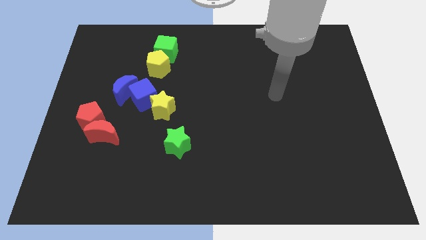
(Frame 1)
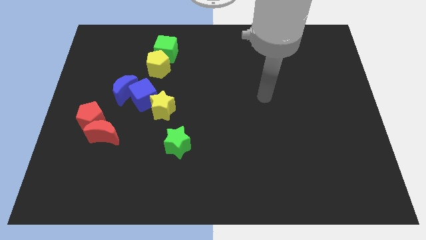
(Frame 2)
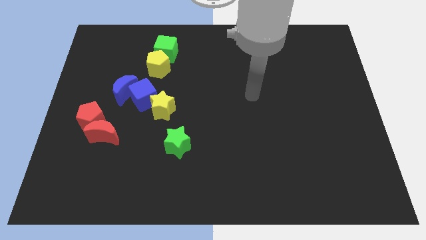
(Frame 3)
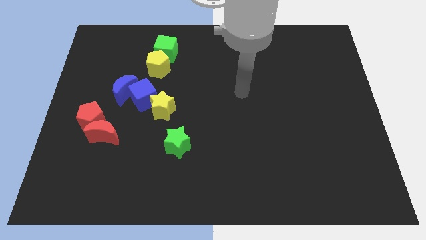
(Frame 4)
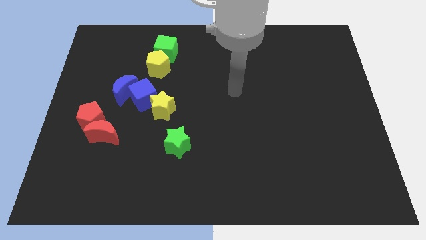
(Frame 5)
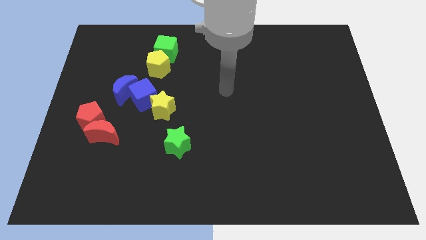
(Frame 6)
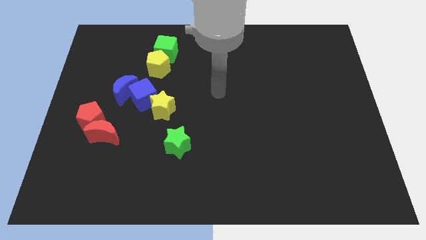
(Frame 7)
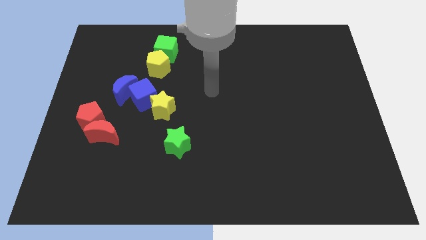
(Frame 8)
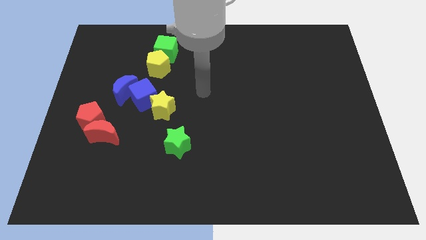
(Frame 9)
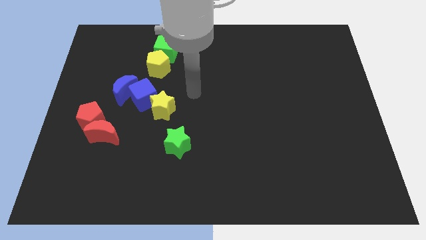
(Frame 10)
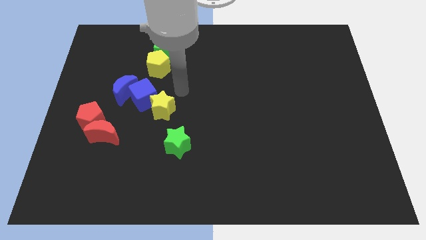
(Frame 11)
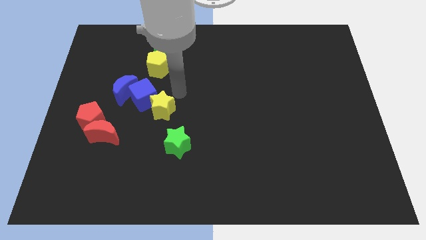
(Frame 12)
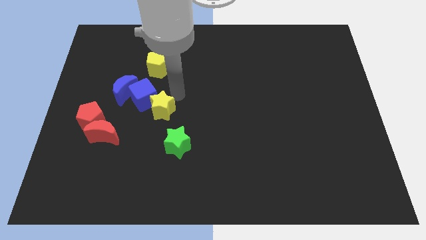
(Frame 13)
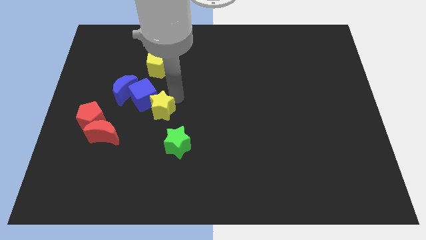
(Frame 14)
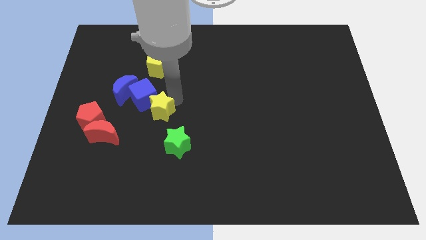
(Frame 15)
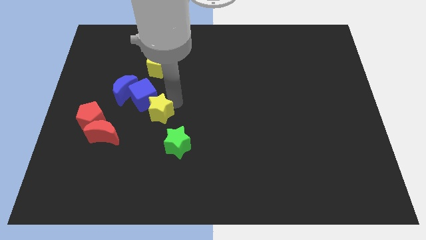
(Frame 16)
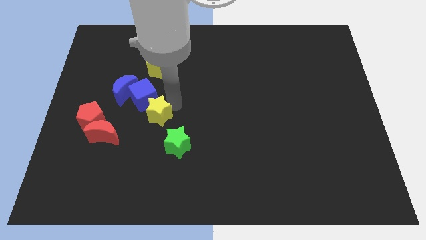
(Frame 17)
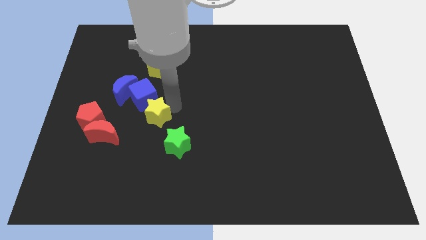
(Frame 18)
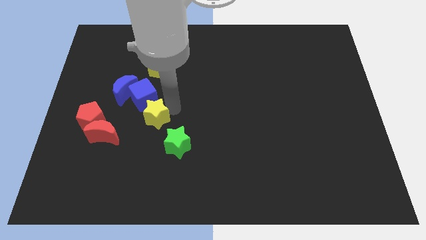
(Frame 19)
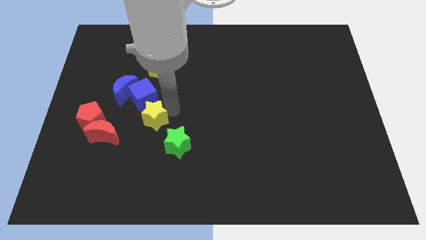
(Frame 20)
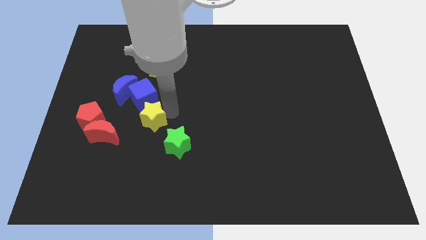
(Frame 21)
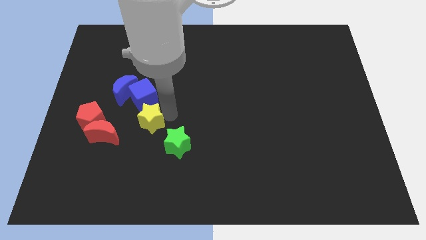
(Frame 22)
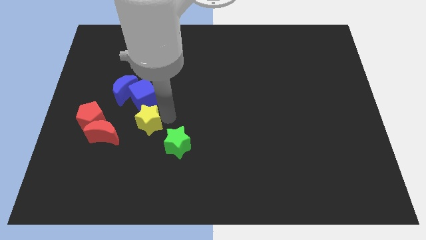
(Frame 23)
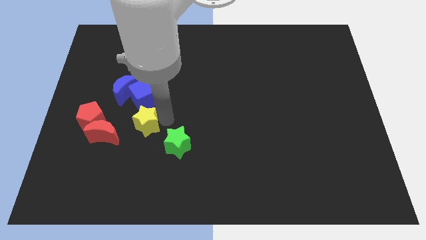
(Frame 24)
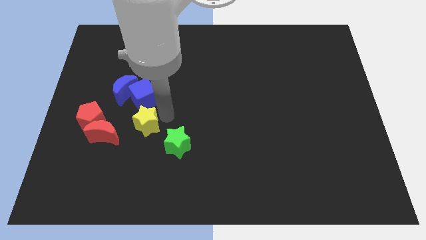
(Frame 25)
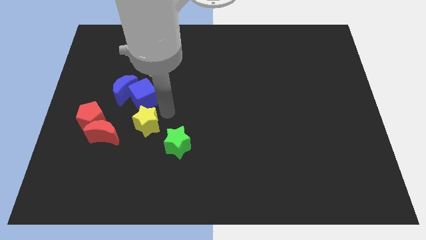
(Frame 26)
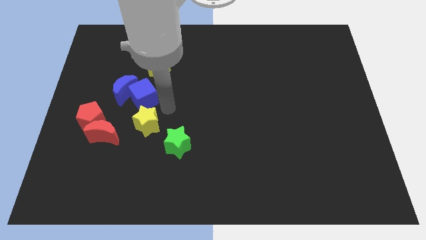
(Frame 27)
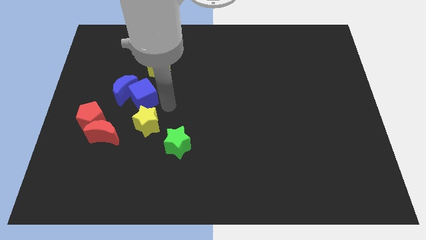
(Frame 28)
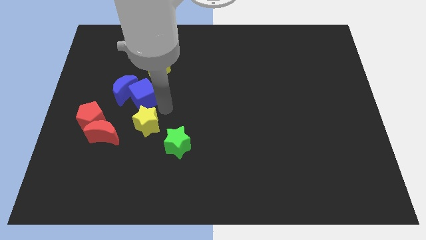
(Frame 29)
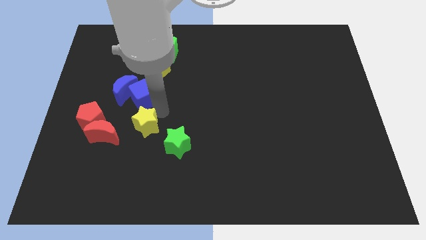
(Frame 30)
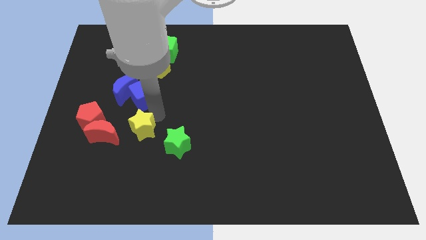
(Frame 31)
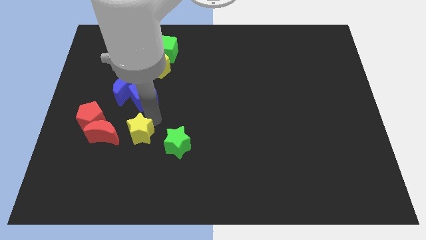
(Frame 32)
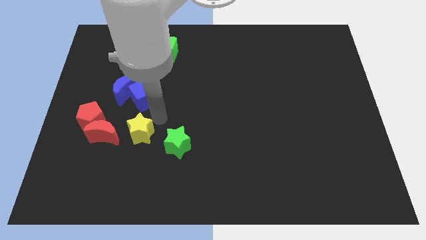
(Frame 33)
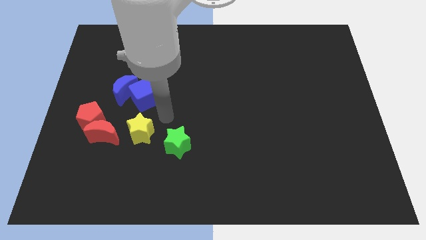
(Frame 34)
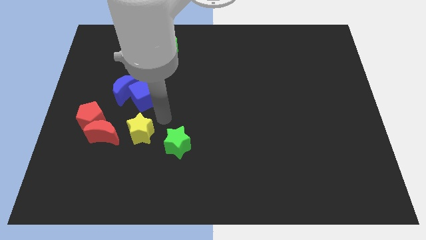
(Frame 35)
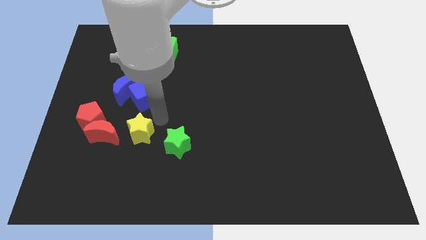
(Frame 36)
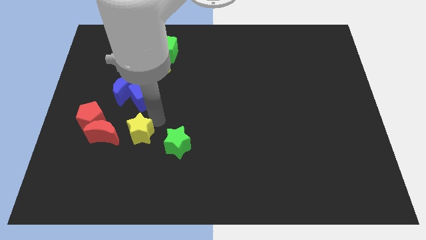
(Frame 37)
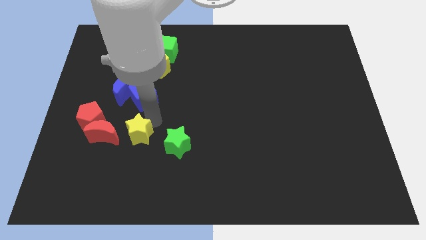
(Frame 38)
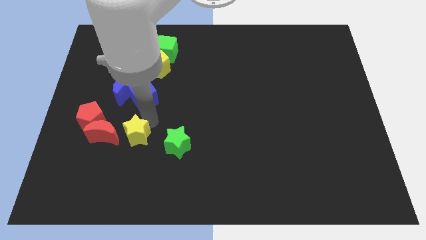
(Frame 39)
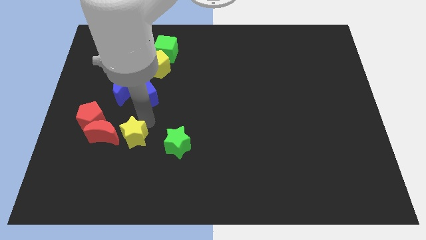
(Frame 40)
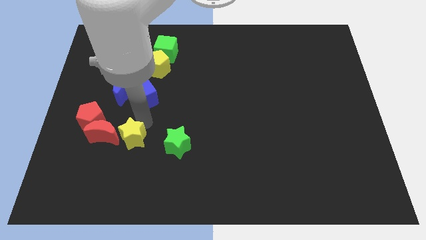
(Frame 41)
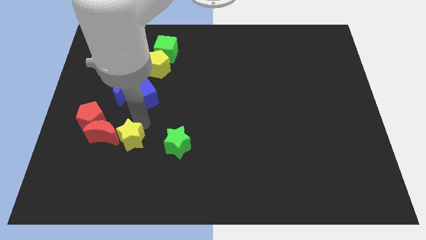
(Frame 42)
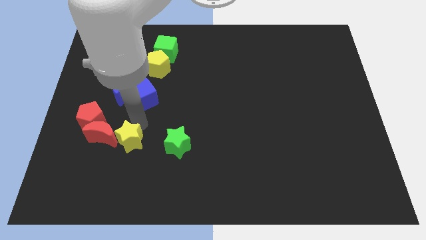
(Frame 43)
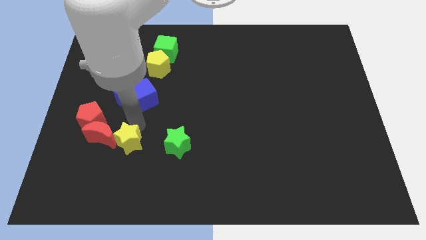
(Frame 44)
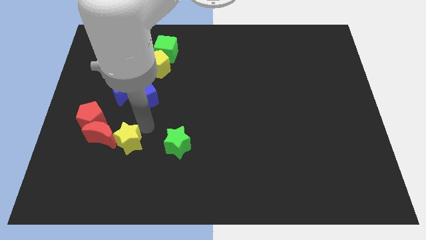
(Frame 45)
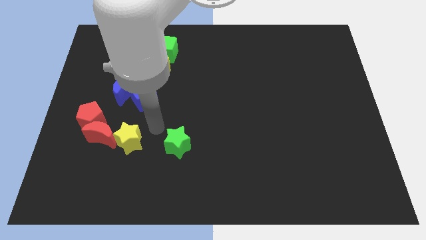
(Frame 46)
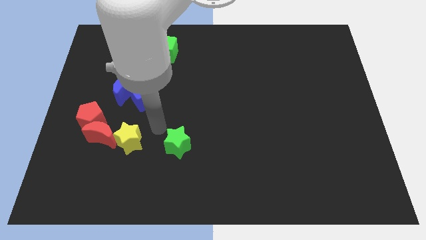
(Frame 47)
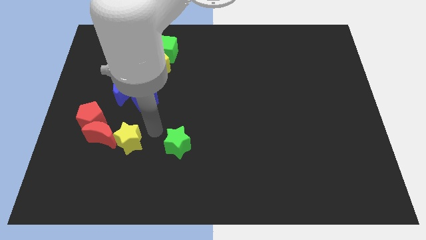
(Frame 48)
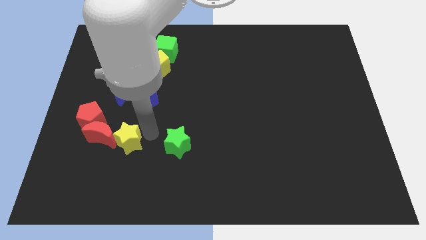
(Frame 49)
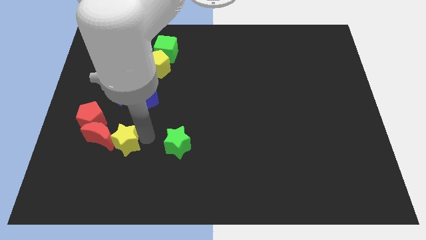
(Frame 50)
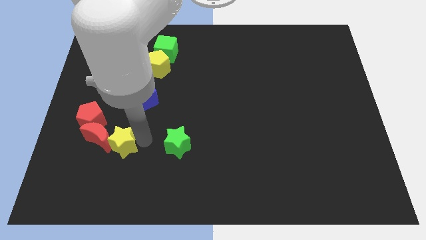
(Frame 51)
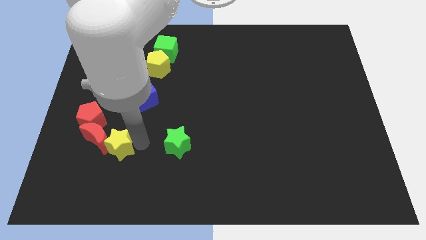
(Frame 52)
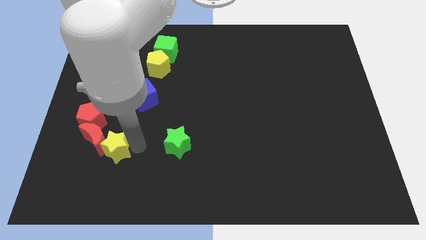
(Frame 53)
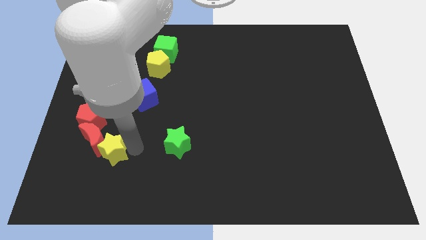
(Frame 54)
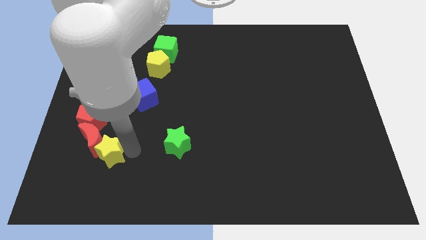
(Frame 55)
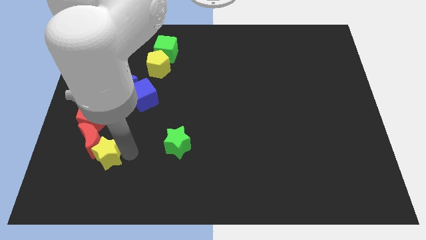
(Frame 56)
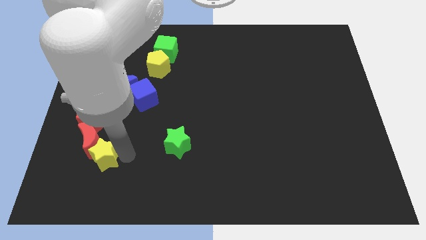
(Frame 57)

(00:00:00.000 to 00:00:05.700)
move the yellow star below the red pentagon

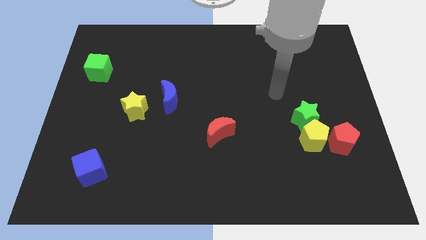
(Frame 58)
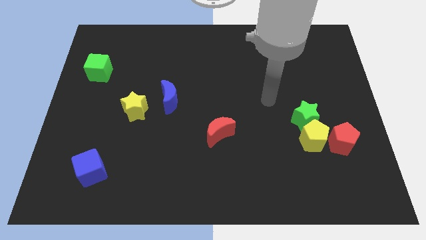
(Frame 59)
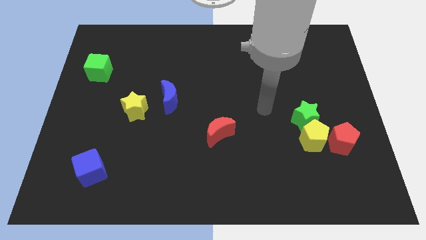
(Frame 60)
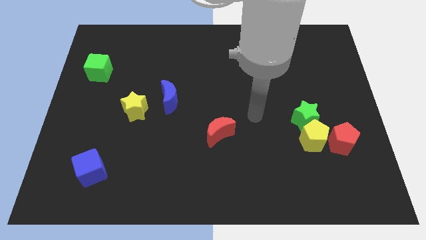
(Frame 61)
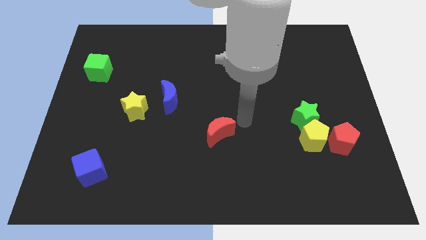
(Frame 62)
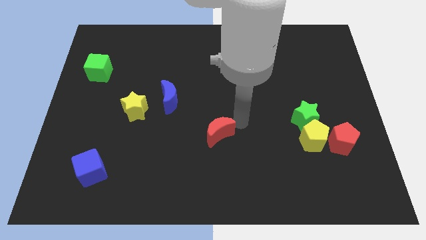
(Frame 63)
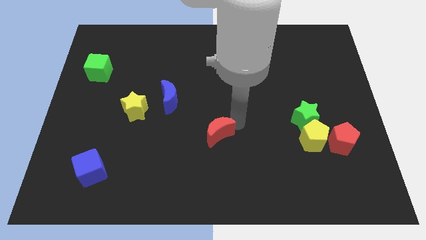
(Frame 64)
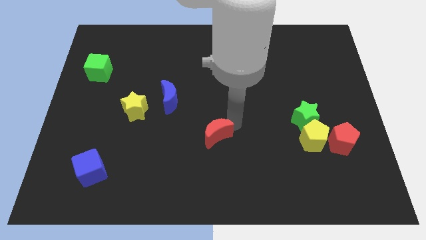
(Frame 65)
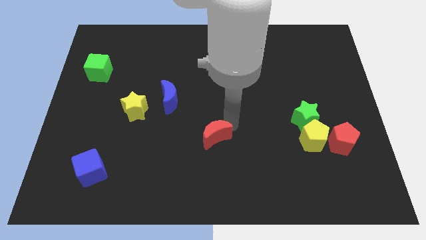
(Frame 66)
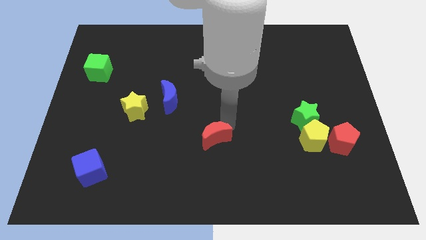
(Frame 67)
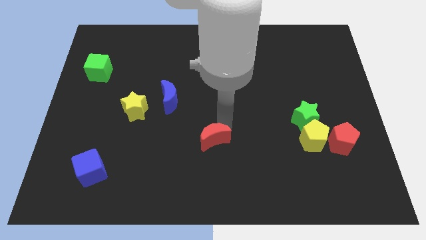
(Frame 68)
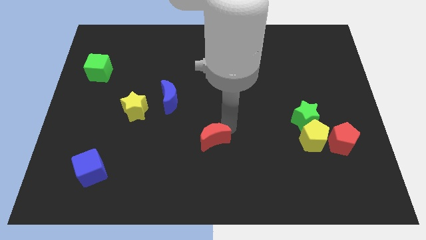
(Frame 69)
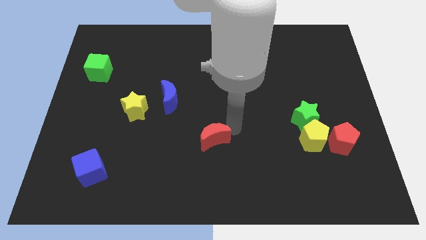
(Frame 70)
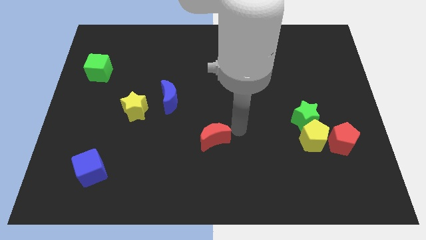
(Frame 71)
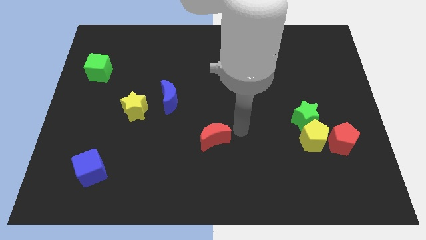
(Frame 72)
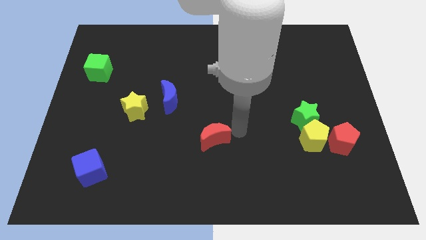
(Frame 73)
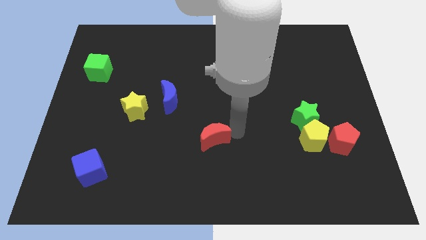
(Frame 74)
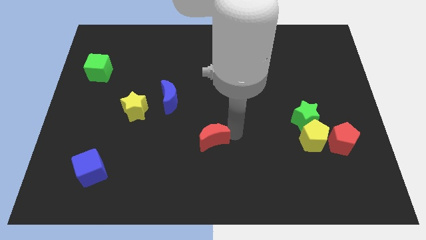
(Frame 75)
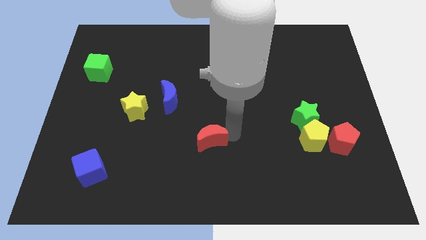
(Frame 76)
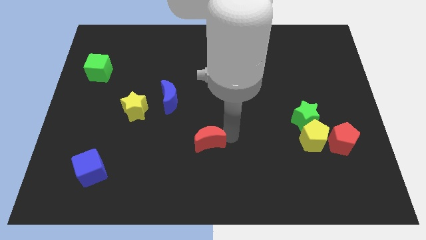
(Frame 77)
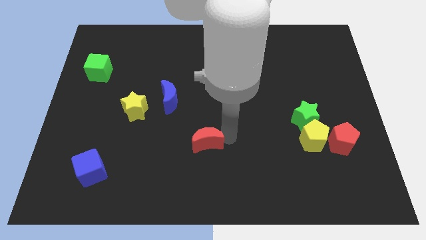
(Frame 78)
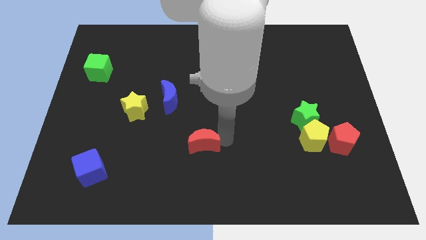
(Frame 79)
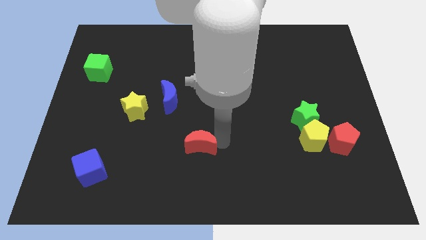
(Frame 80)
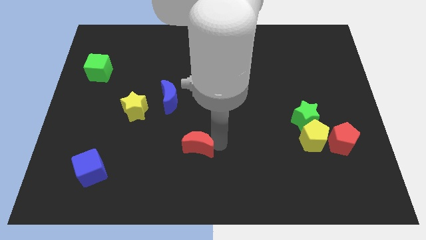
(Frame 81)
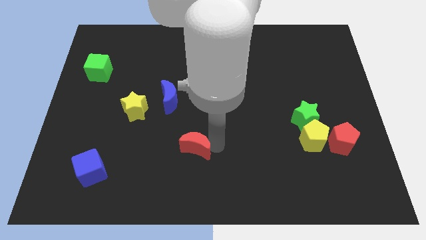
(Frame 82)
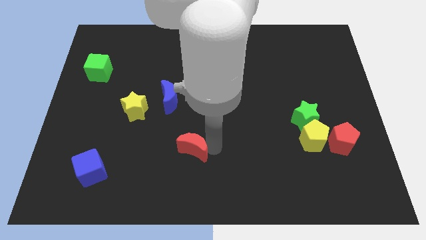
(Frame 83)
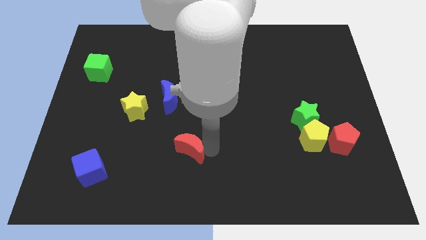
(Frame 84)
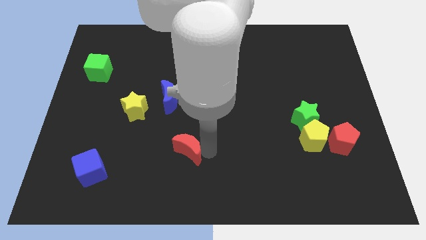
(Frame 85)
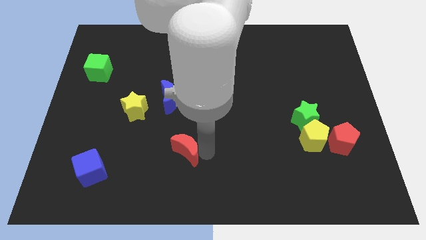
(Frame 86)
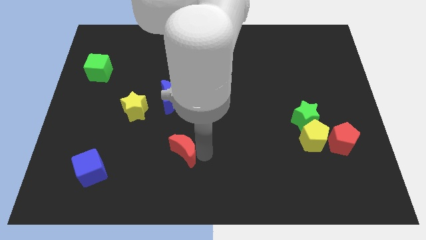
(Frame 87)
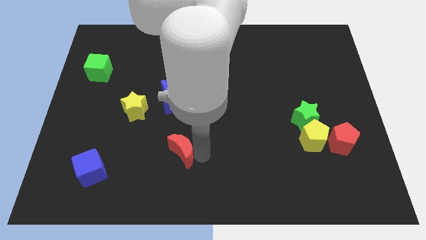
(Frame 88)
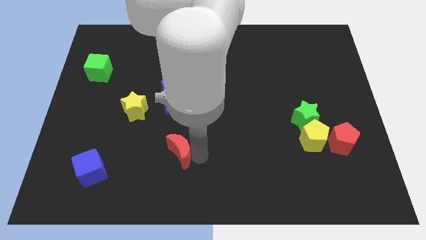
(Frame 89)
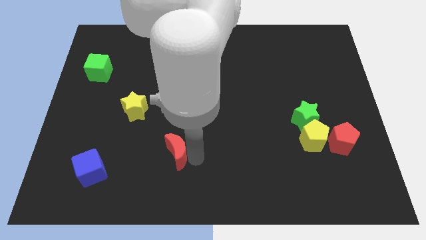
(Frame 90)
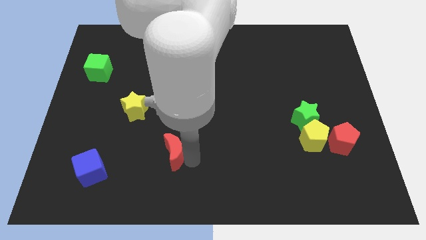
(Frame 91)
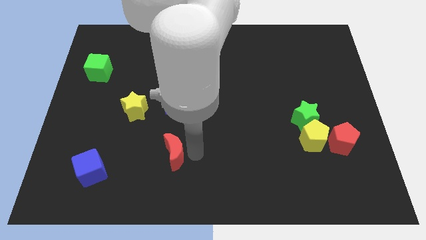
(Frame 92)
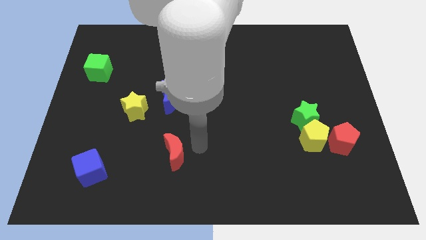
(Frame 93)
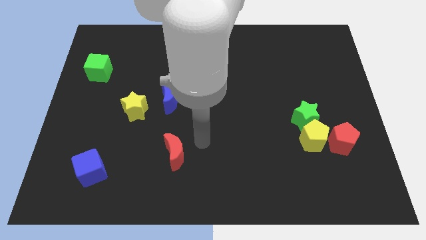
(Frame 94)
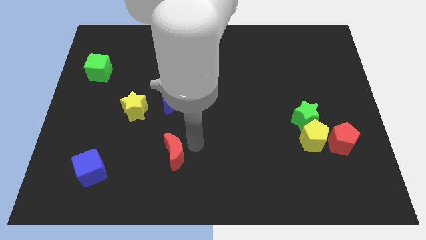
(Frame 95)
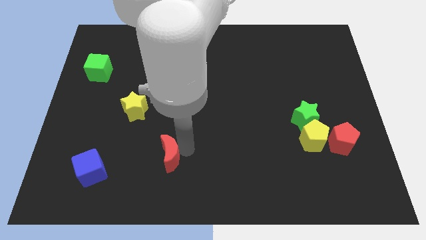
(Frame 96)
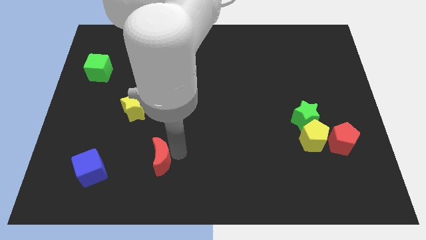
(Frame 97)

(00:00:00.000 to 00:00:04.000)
move the red moon to the right side of the blue cube
